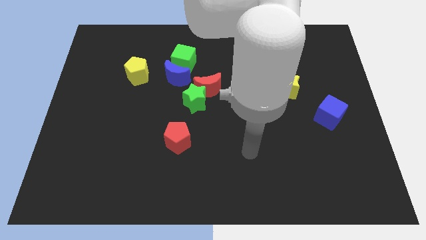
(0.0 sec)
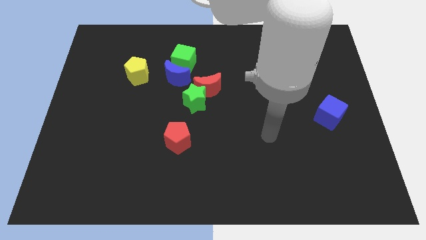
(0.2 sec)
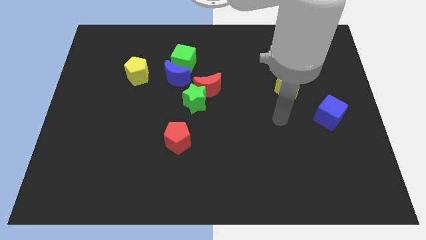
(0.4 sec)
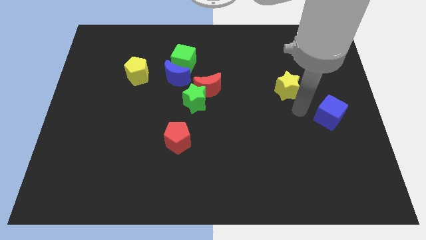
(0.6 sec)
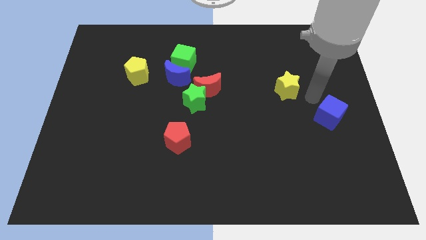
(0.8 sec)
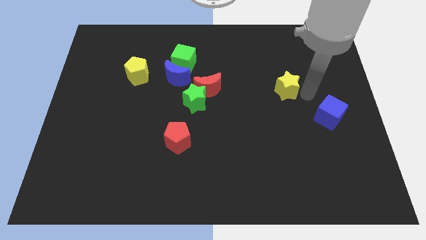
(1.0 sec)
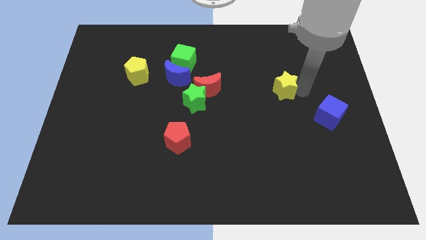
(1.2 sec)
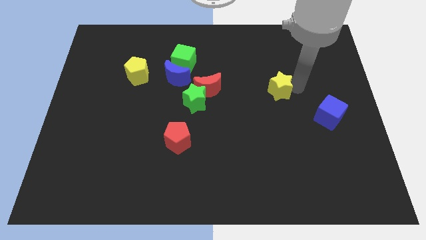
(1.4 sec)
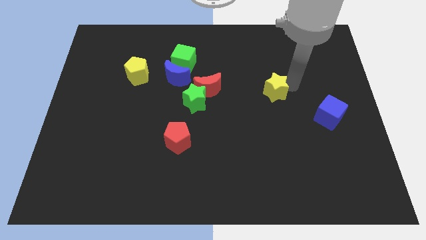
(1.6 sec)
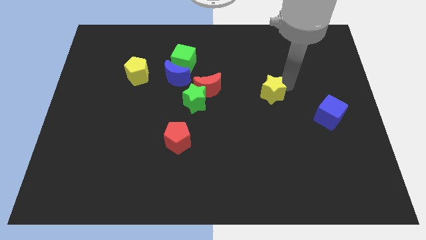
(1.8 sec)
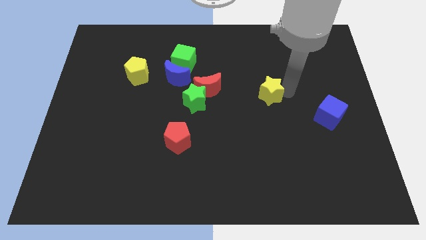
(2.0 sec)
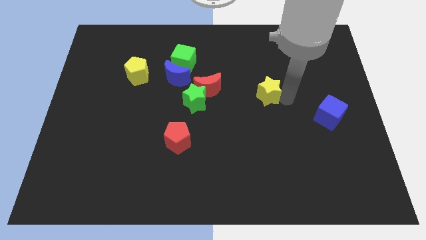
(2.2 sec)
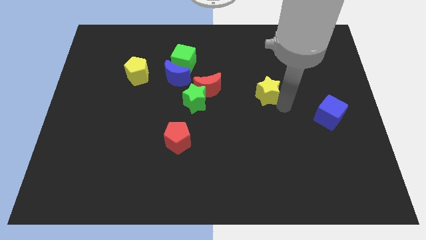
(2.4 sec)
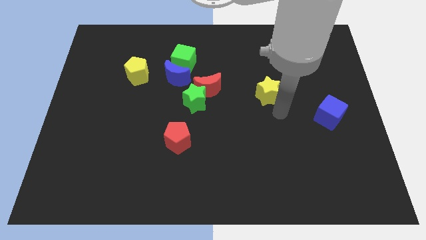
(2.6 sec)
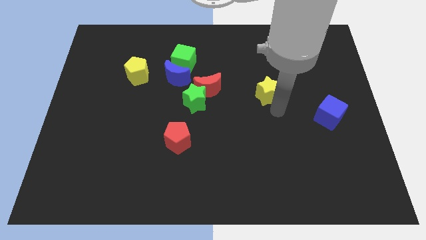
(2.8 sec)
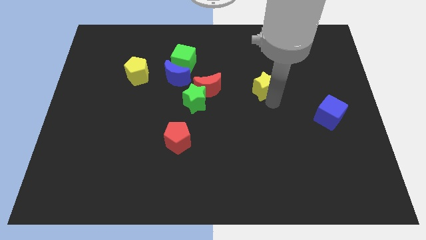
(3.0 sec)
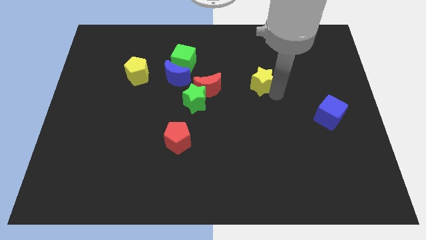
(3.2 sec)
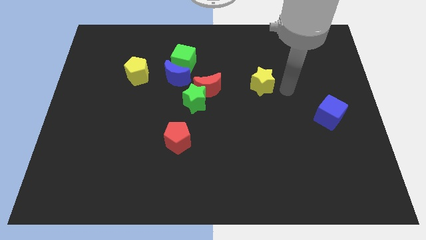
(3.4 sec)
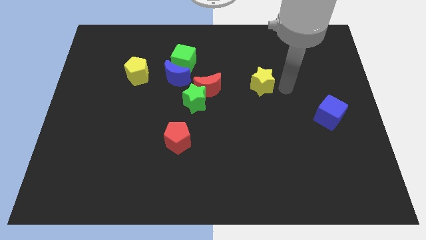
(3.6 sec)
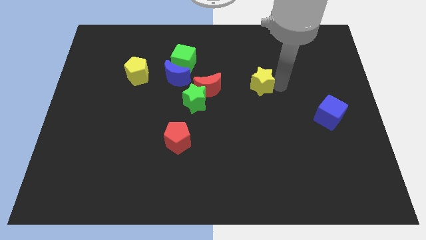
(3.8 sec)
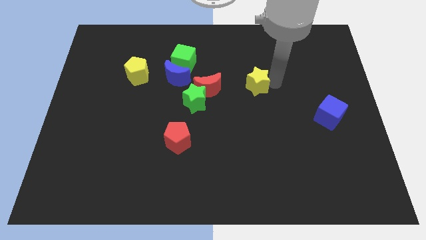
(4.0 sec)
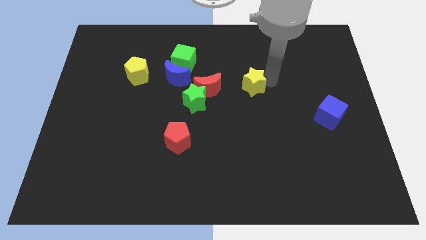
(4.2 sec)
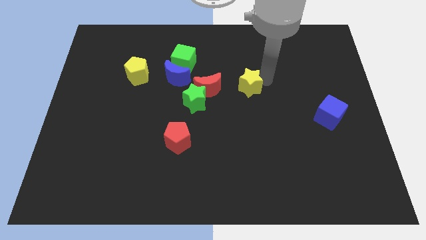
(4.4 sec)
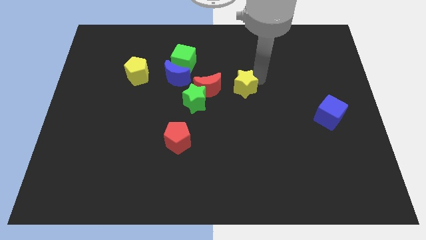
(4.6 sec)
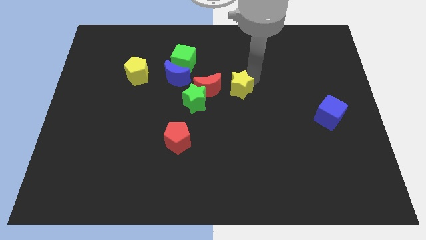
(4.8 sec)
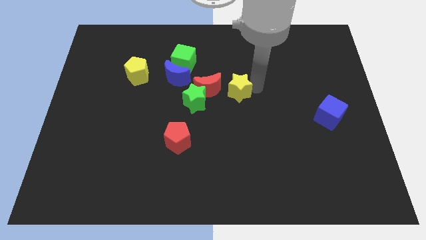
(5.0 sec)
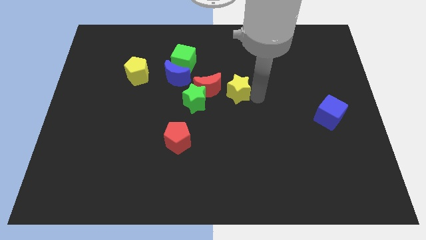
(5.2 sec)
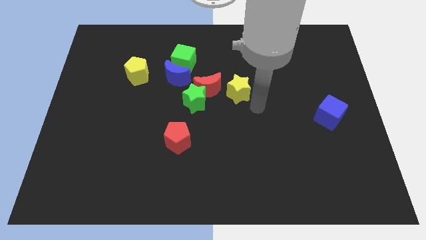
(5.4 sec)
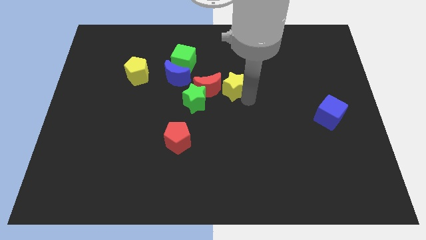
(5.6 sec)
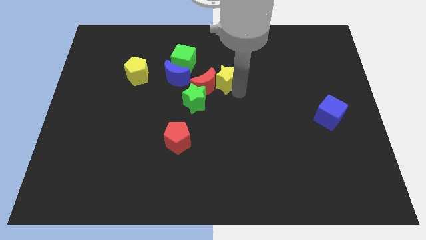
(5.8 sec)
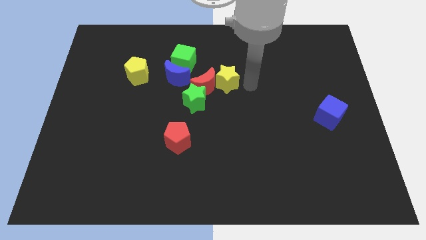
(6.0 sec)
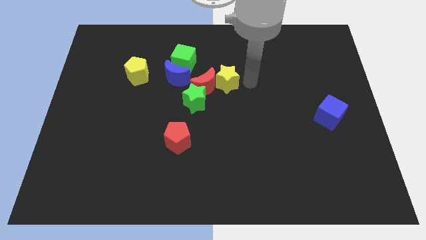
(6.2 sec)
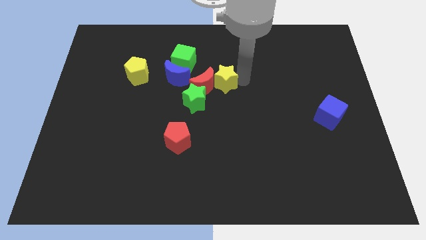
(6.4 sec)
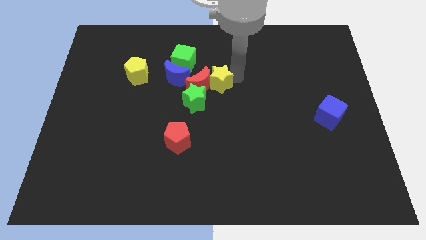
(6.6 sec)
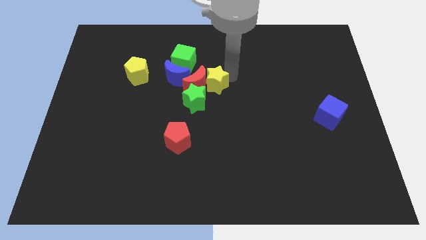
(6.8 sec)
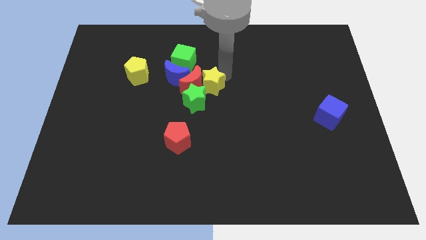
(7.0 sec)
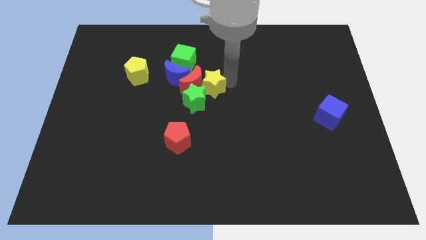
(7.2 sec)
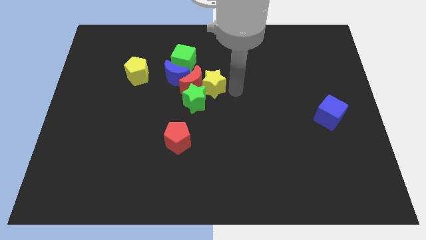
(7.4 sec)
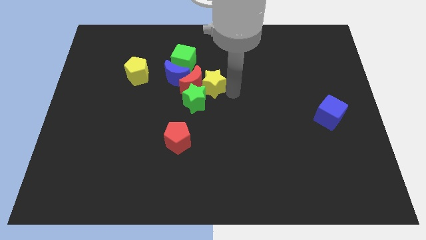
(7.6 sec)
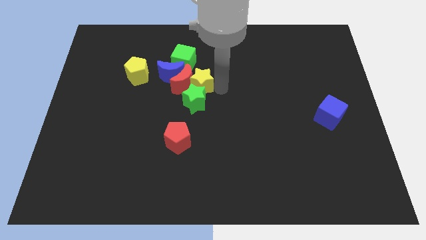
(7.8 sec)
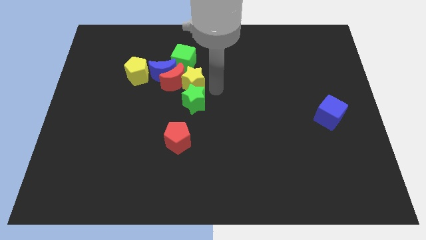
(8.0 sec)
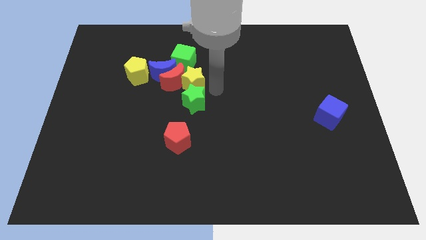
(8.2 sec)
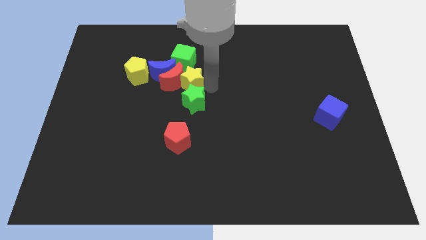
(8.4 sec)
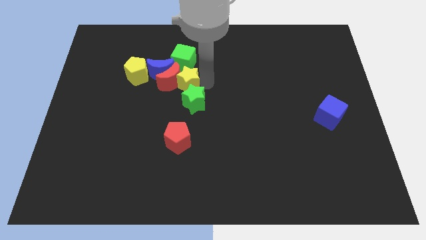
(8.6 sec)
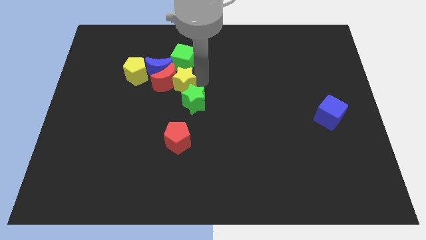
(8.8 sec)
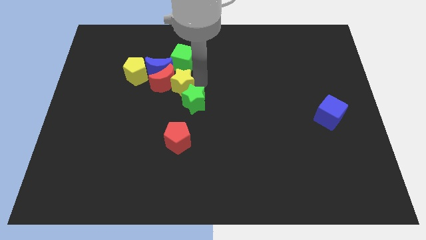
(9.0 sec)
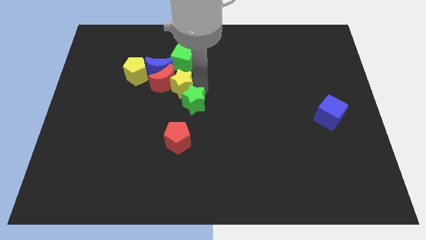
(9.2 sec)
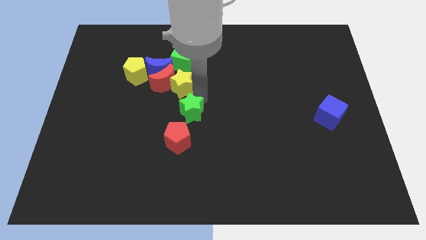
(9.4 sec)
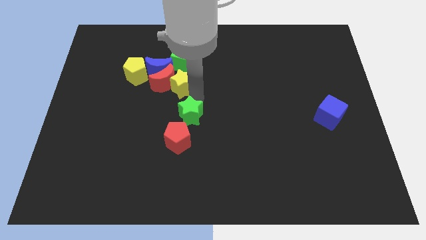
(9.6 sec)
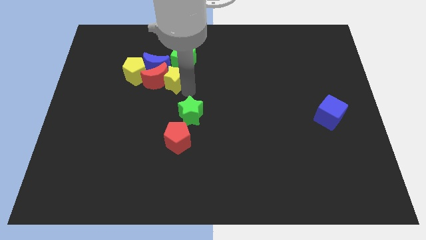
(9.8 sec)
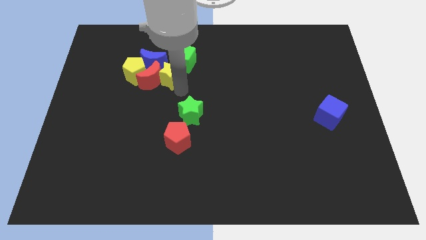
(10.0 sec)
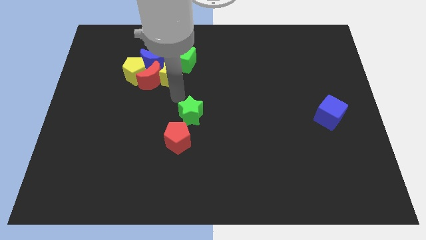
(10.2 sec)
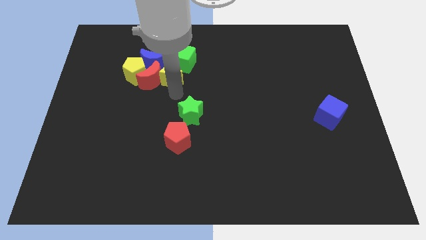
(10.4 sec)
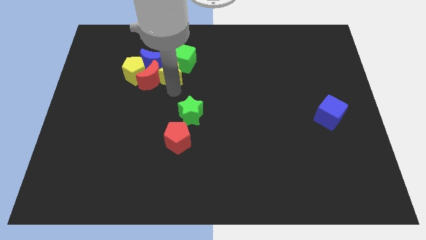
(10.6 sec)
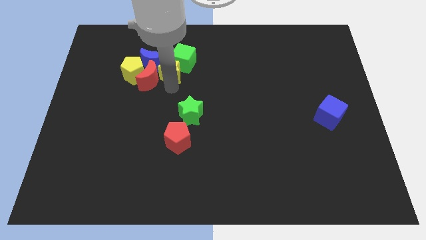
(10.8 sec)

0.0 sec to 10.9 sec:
move the yellow star next to the blue moon

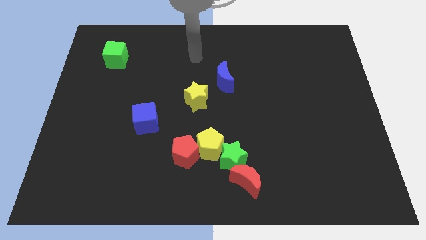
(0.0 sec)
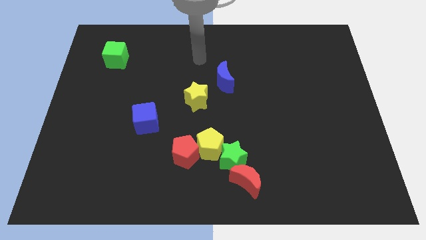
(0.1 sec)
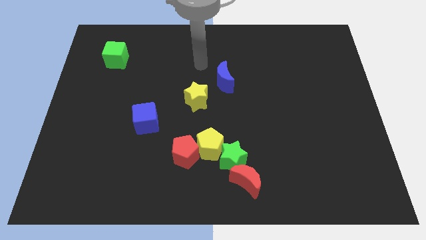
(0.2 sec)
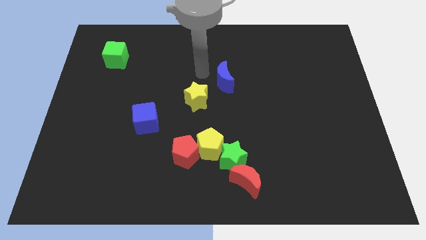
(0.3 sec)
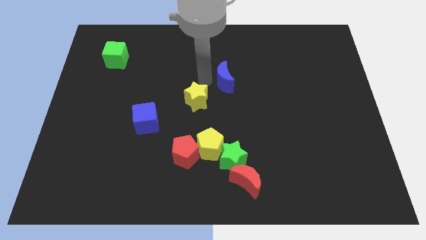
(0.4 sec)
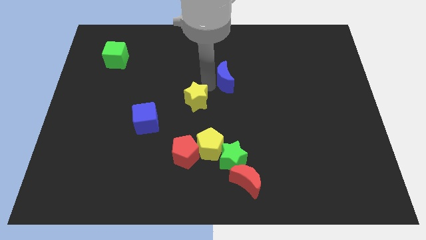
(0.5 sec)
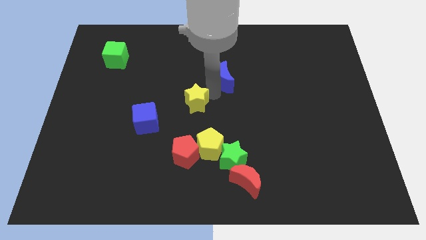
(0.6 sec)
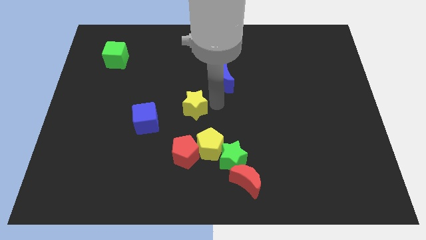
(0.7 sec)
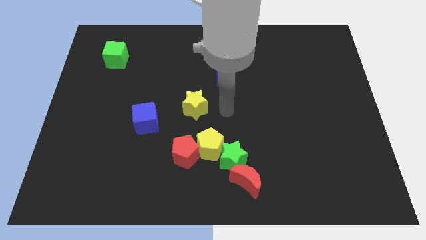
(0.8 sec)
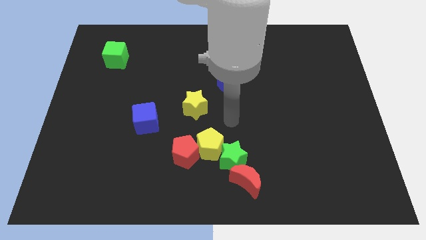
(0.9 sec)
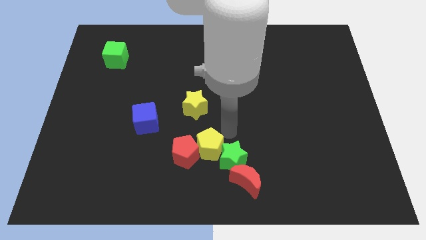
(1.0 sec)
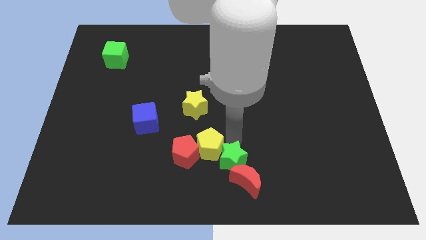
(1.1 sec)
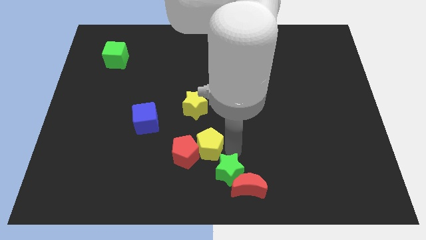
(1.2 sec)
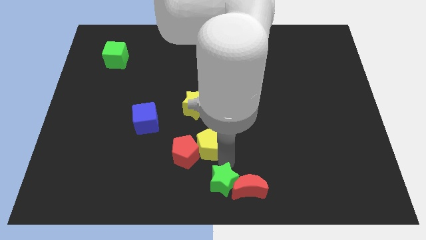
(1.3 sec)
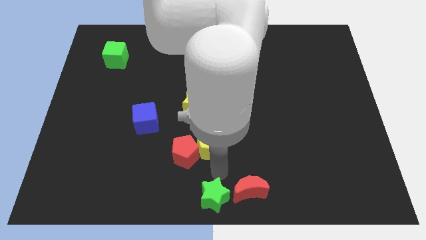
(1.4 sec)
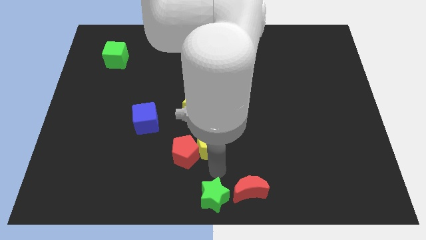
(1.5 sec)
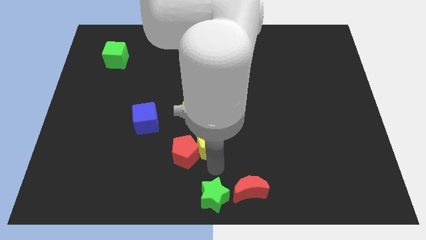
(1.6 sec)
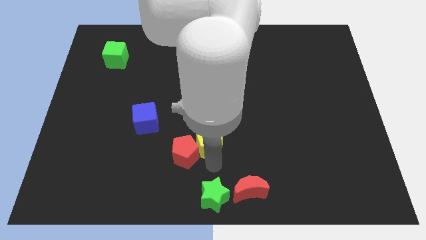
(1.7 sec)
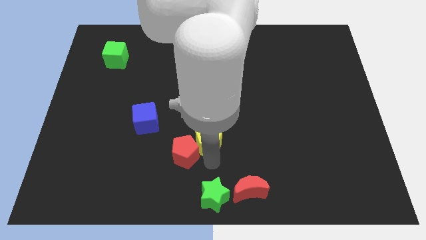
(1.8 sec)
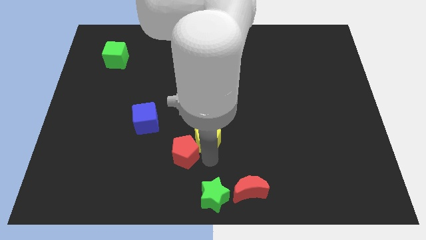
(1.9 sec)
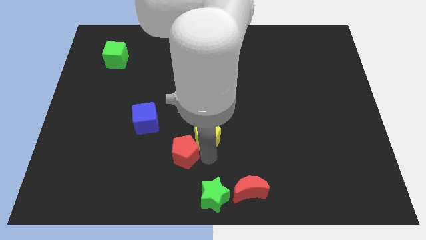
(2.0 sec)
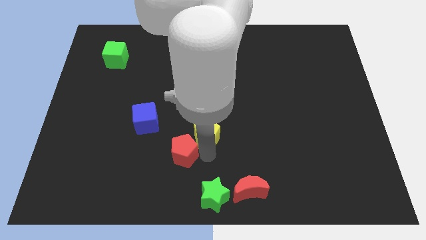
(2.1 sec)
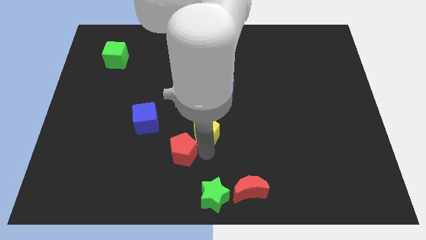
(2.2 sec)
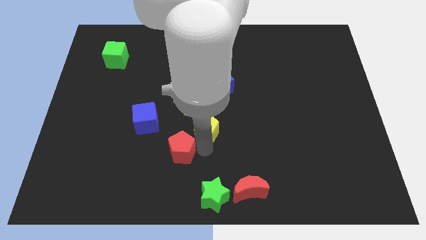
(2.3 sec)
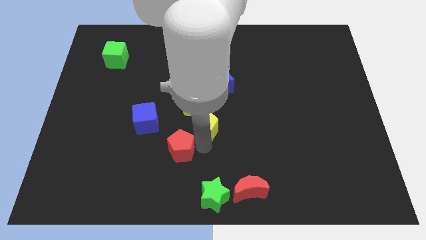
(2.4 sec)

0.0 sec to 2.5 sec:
push the yellow pentagon towards the yellow star
